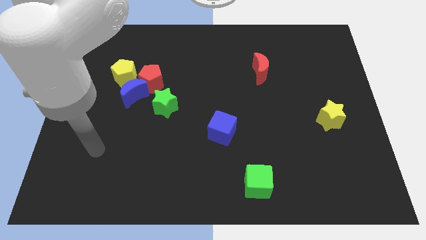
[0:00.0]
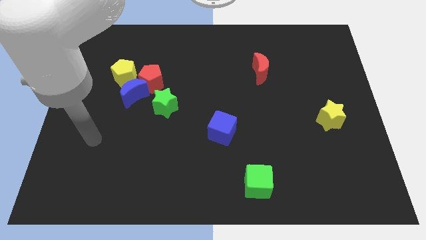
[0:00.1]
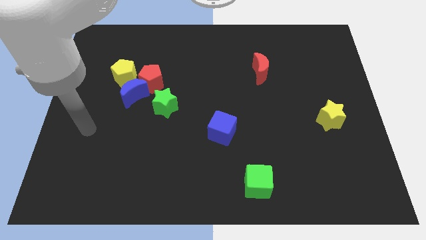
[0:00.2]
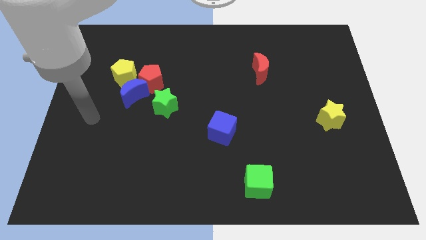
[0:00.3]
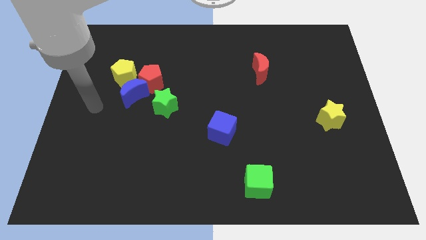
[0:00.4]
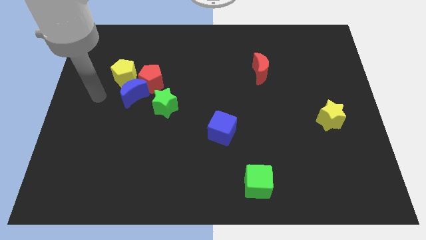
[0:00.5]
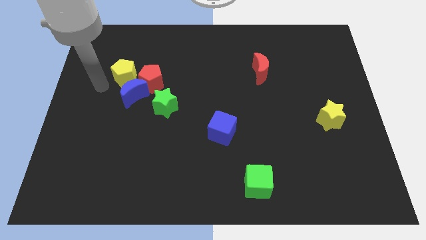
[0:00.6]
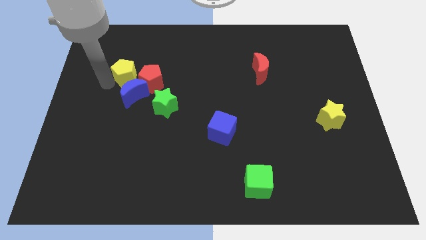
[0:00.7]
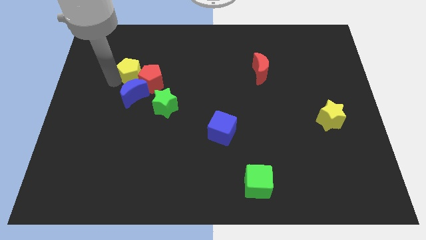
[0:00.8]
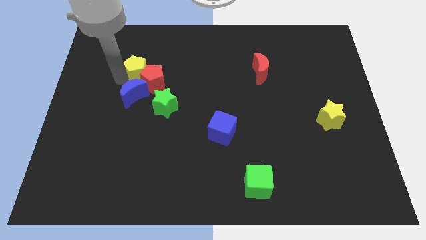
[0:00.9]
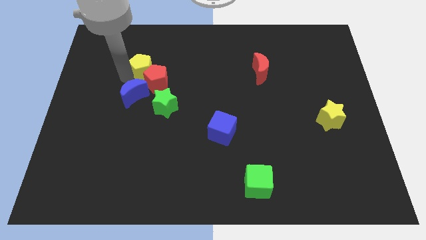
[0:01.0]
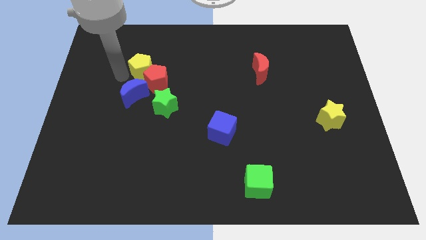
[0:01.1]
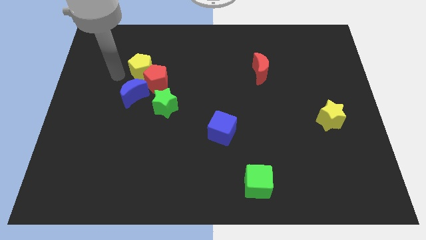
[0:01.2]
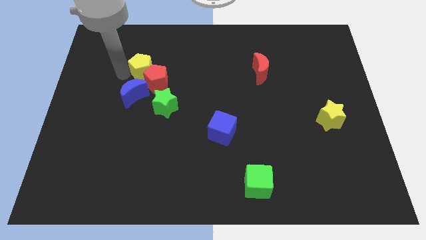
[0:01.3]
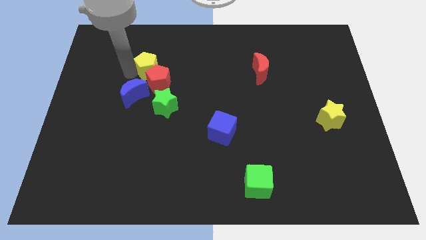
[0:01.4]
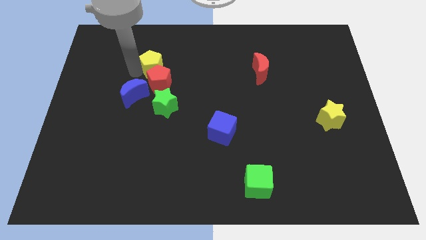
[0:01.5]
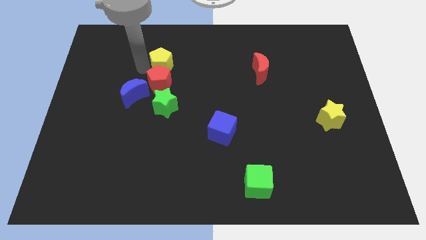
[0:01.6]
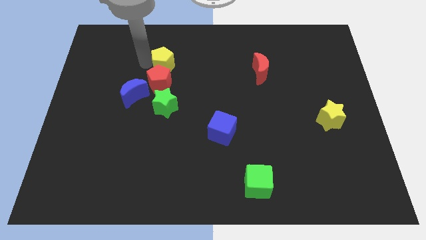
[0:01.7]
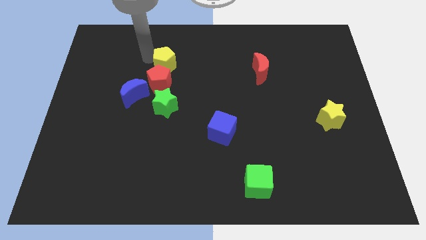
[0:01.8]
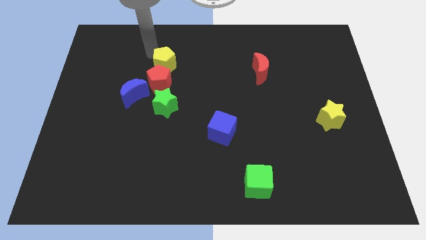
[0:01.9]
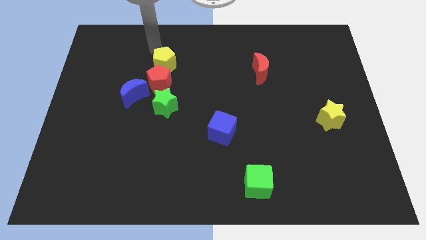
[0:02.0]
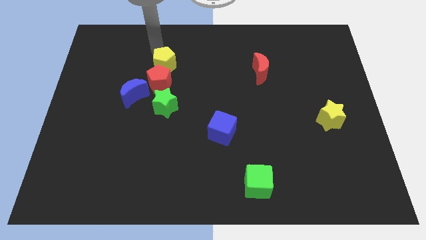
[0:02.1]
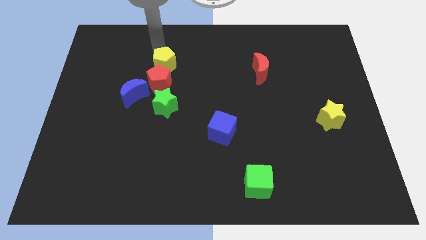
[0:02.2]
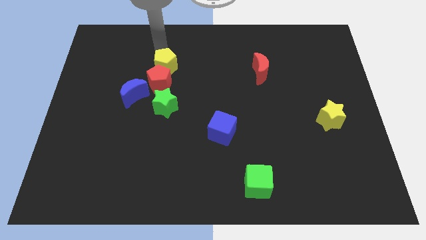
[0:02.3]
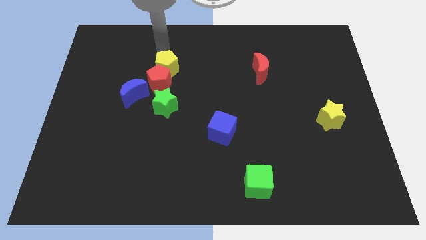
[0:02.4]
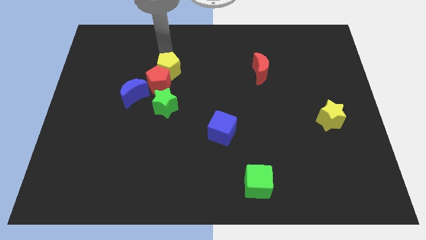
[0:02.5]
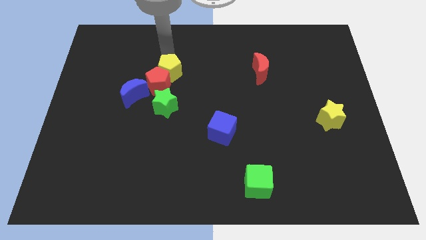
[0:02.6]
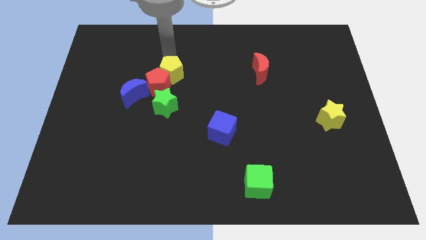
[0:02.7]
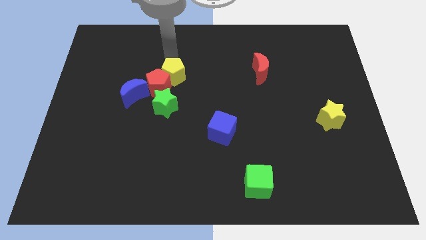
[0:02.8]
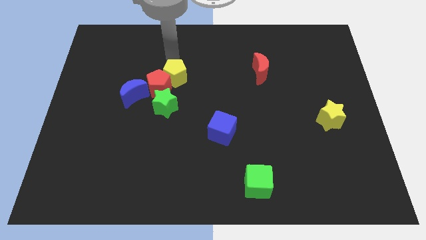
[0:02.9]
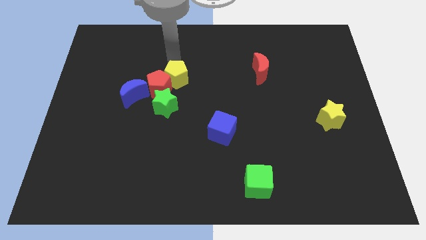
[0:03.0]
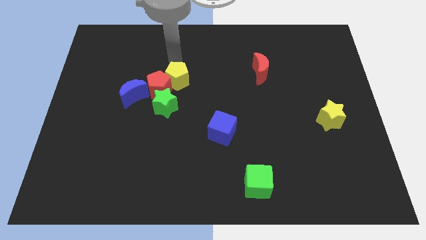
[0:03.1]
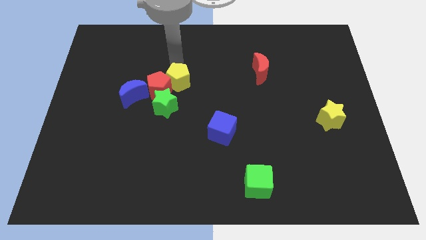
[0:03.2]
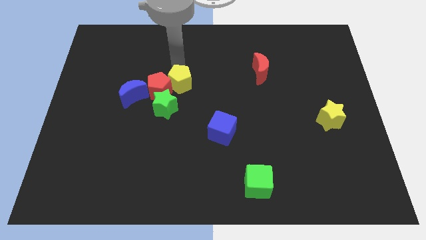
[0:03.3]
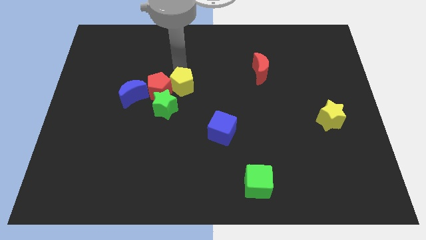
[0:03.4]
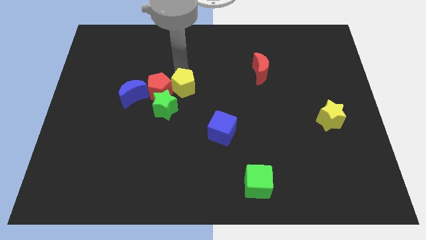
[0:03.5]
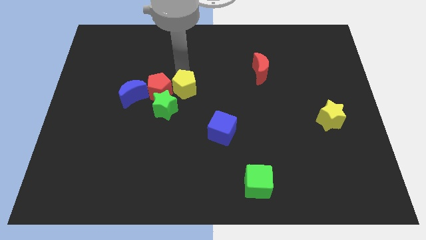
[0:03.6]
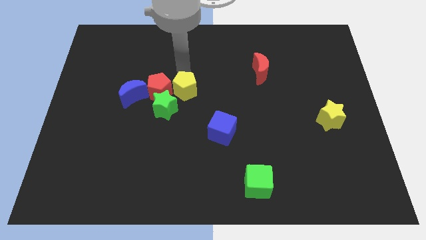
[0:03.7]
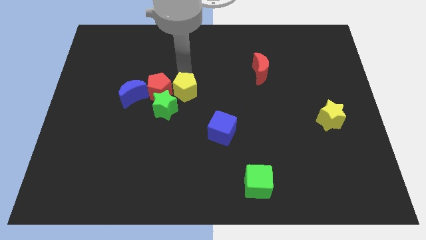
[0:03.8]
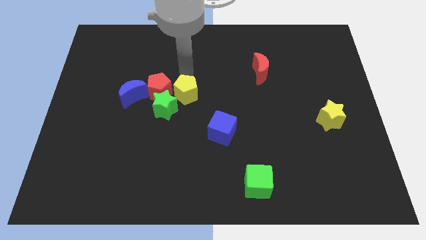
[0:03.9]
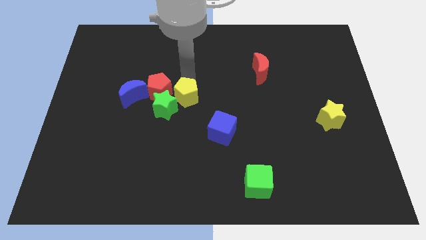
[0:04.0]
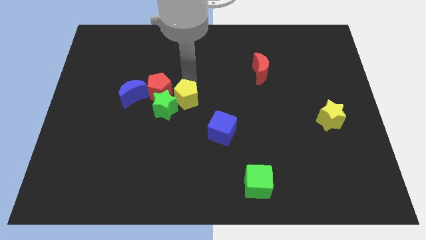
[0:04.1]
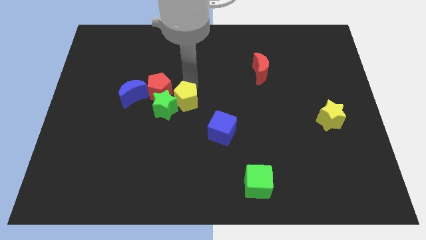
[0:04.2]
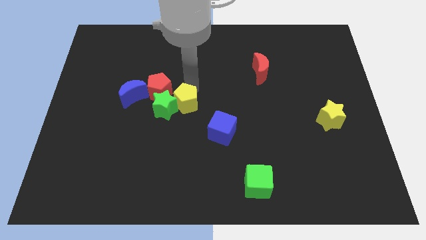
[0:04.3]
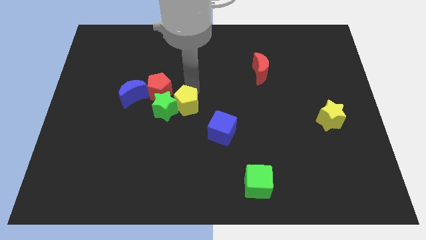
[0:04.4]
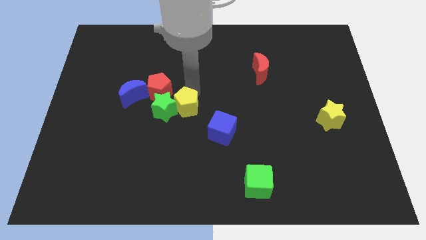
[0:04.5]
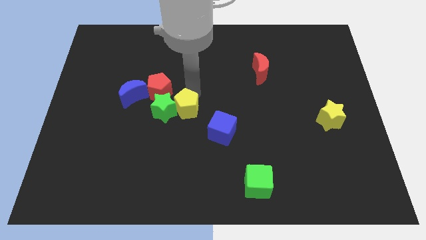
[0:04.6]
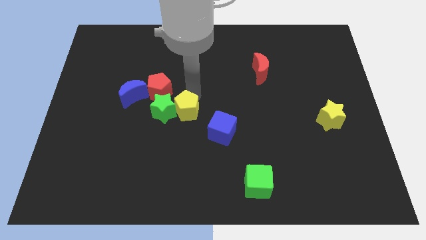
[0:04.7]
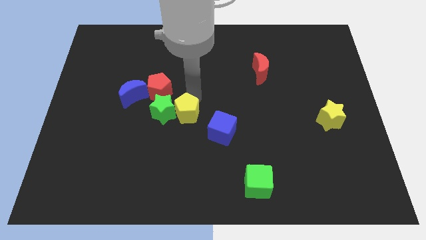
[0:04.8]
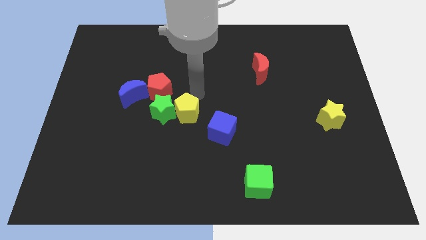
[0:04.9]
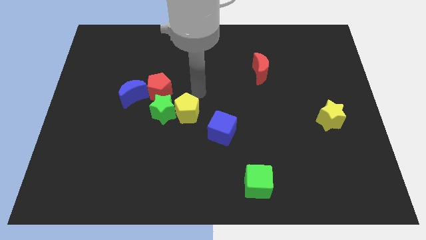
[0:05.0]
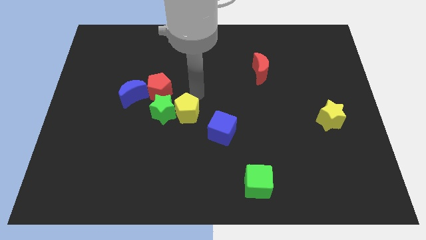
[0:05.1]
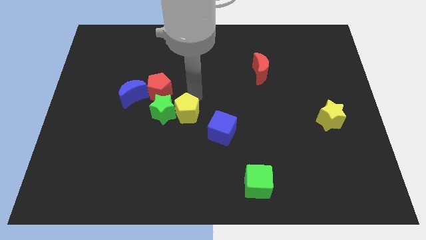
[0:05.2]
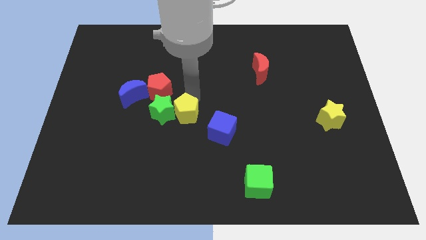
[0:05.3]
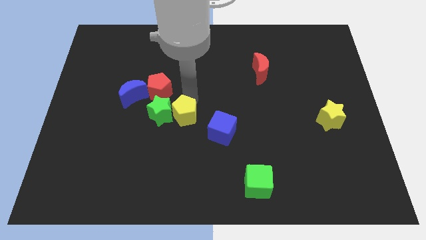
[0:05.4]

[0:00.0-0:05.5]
push the yellow pentagon just left of the blue cube

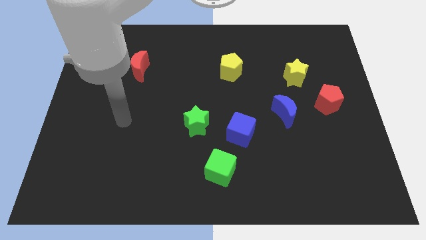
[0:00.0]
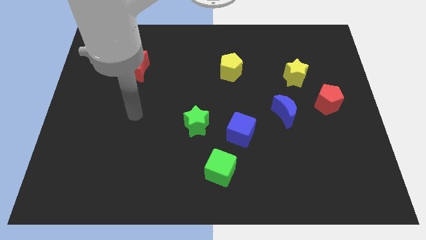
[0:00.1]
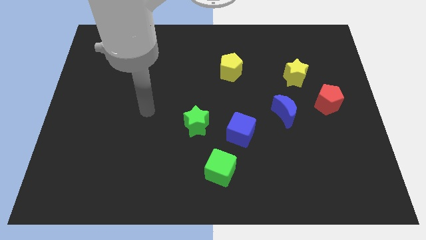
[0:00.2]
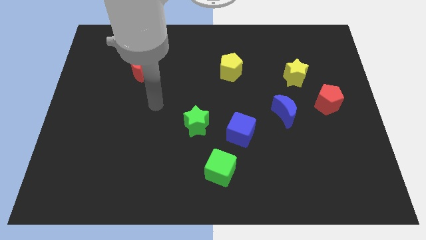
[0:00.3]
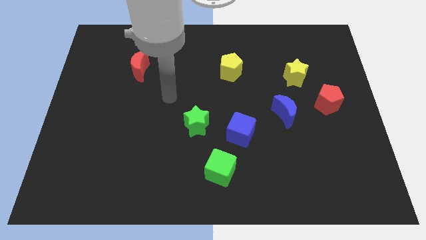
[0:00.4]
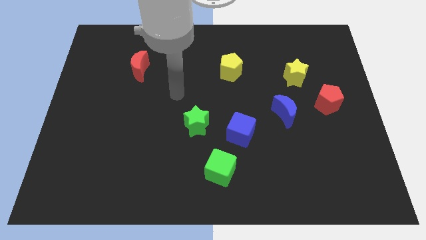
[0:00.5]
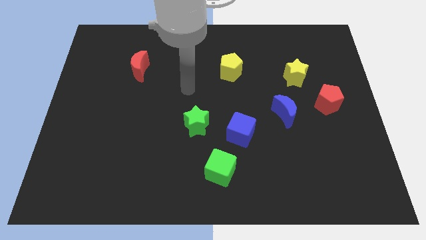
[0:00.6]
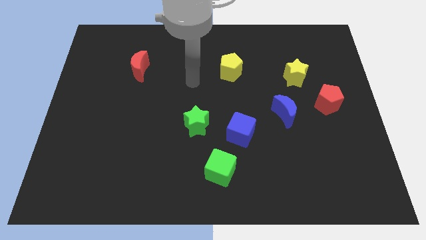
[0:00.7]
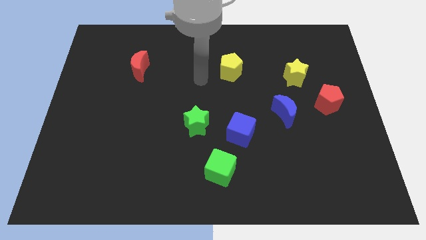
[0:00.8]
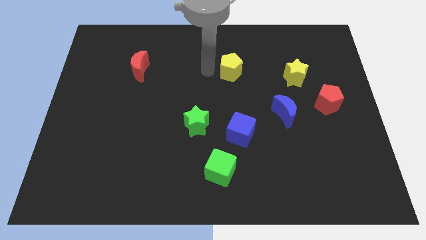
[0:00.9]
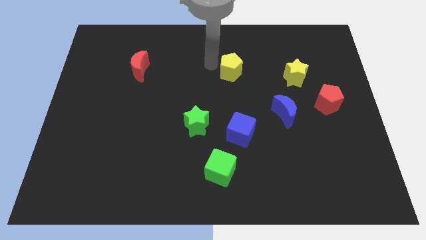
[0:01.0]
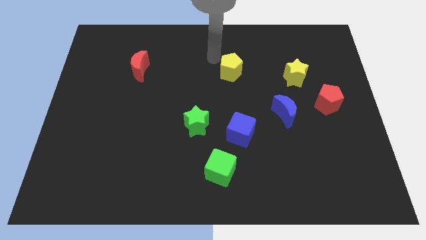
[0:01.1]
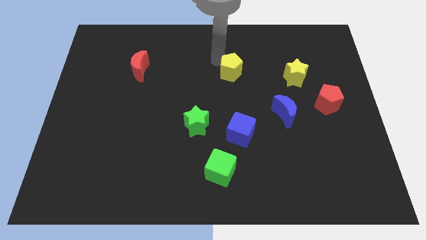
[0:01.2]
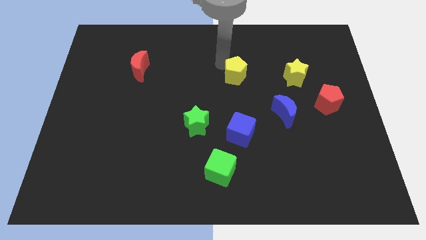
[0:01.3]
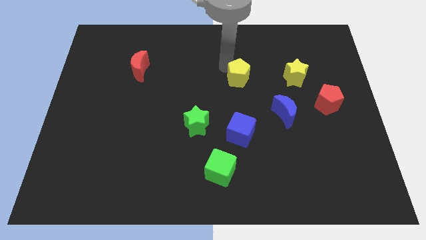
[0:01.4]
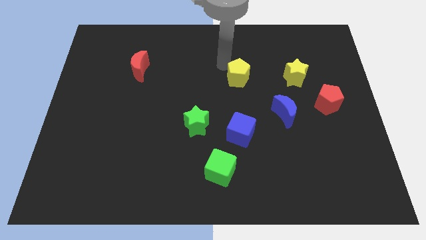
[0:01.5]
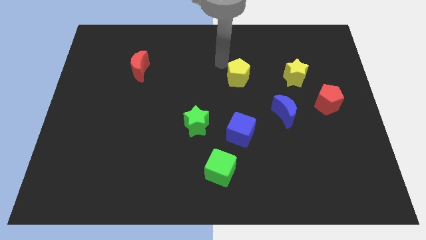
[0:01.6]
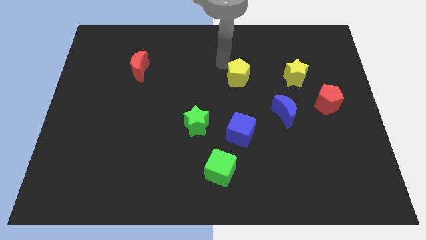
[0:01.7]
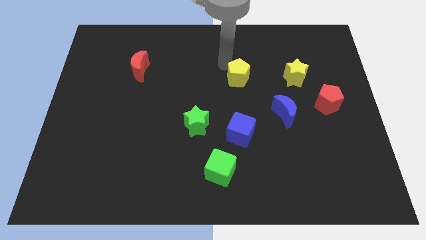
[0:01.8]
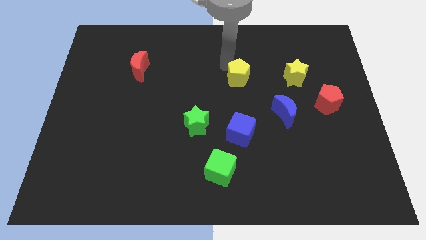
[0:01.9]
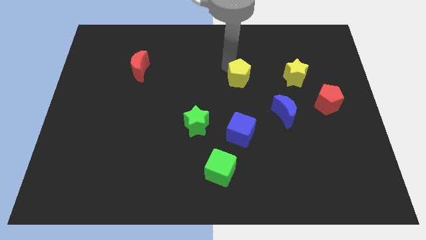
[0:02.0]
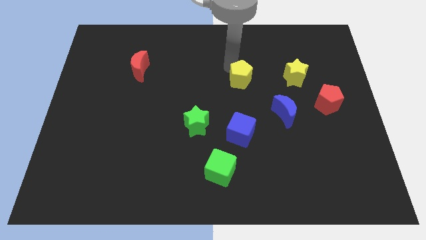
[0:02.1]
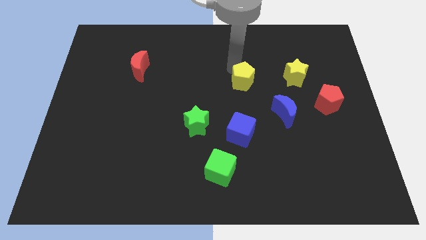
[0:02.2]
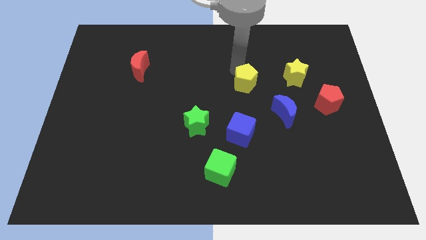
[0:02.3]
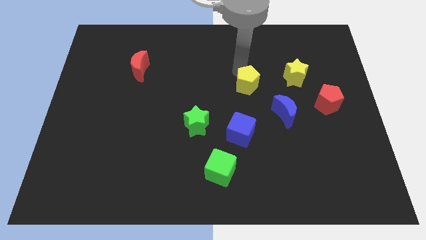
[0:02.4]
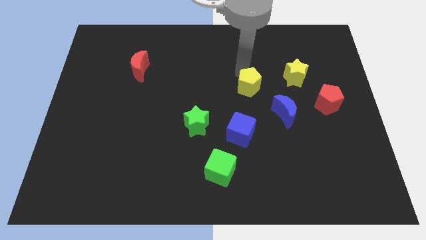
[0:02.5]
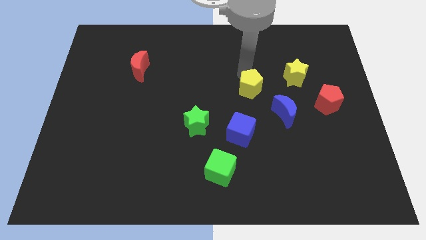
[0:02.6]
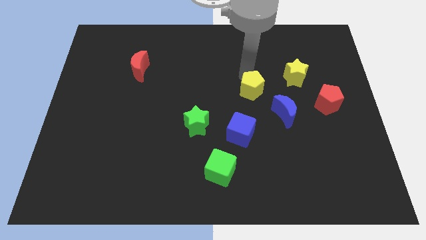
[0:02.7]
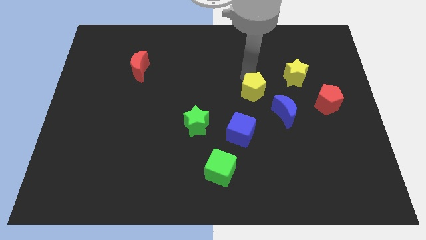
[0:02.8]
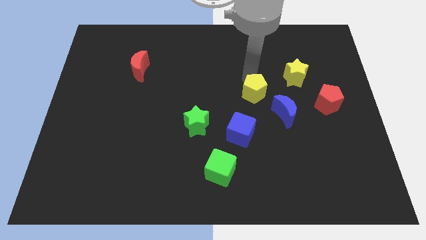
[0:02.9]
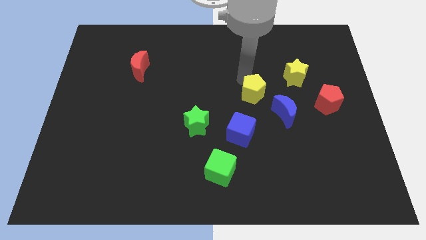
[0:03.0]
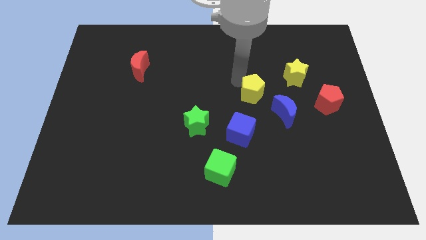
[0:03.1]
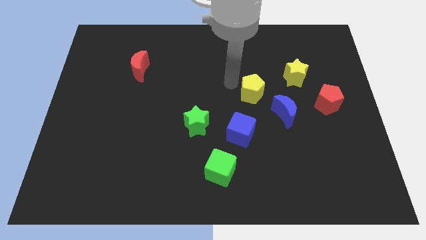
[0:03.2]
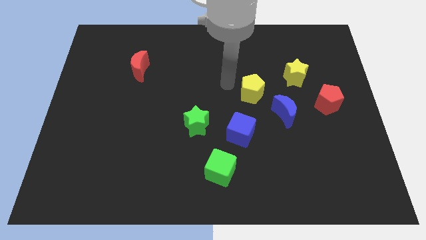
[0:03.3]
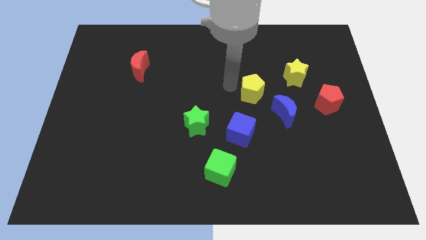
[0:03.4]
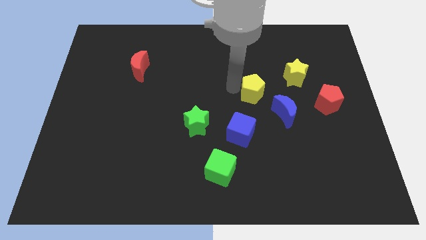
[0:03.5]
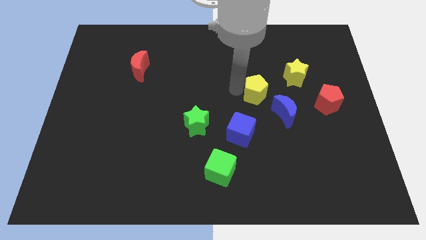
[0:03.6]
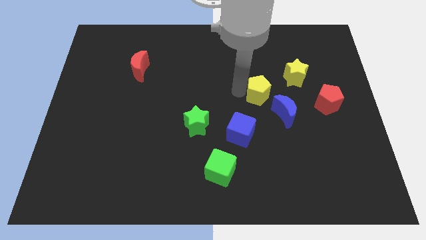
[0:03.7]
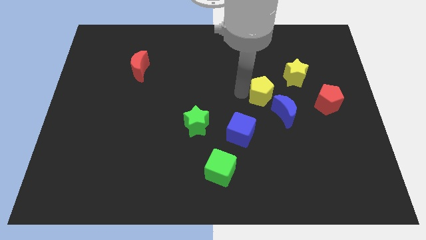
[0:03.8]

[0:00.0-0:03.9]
push the yellow pentagon left of the red pentagon
